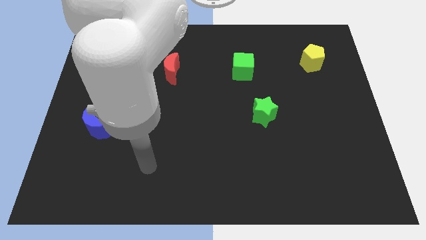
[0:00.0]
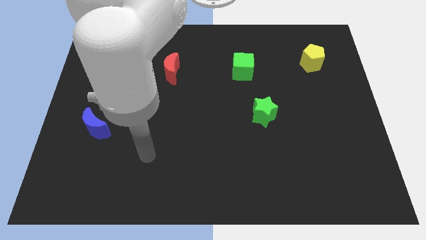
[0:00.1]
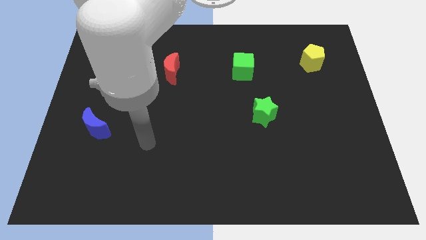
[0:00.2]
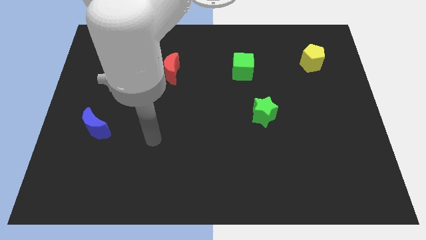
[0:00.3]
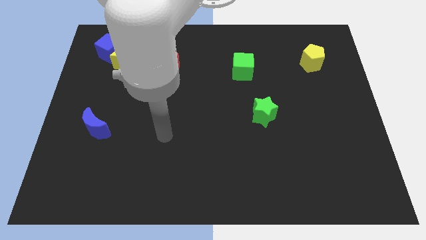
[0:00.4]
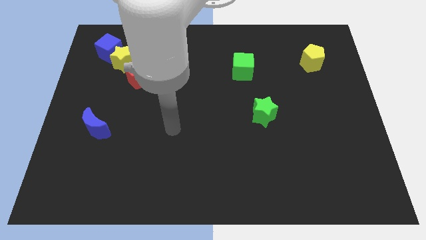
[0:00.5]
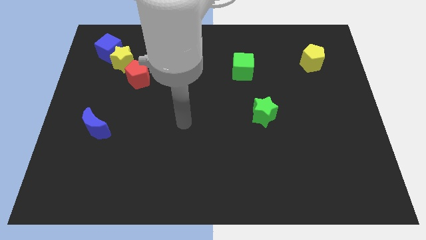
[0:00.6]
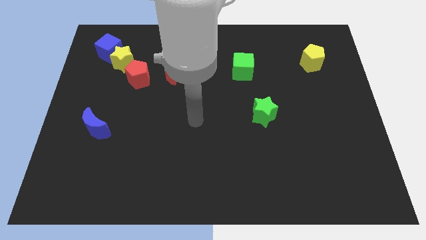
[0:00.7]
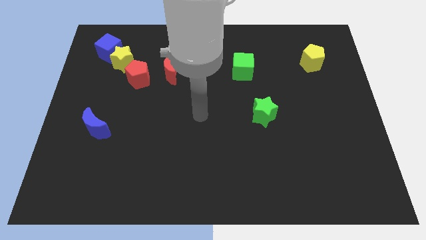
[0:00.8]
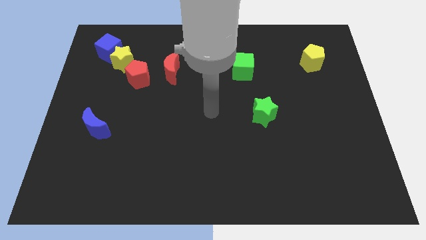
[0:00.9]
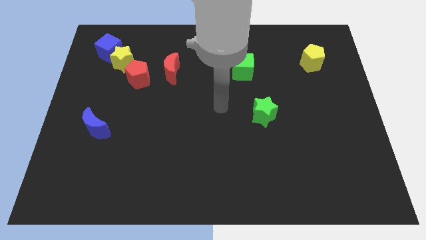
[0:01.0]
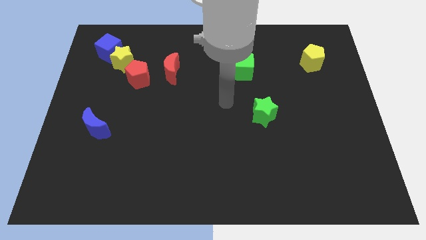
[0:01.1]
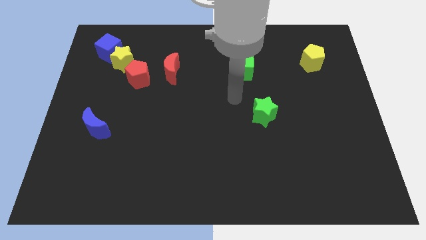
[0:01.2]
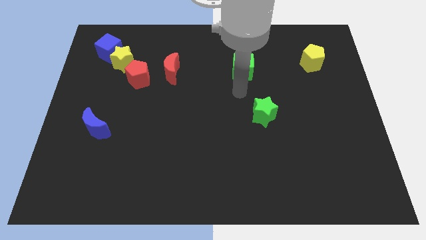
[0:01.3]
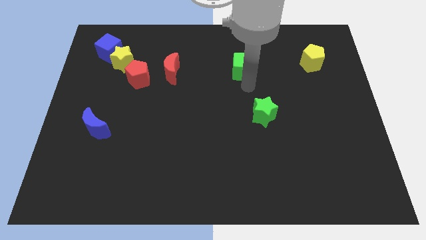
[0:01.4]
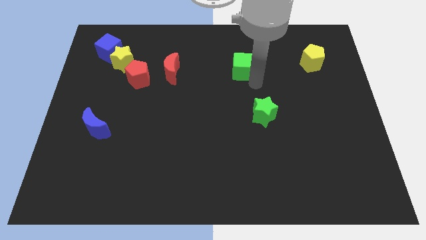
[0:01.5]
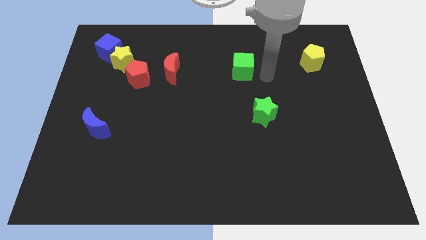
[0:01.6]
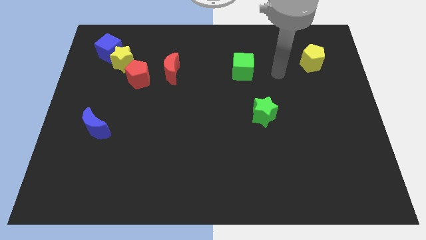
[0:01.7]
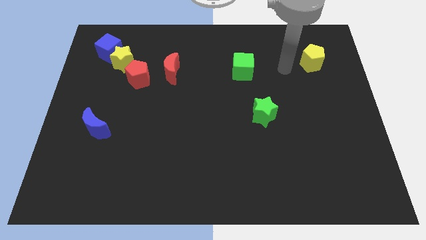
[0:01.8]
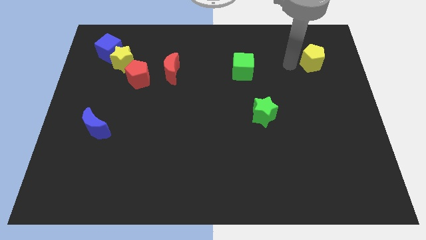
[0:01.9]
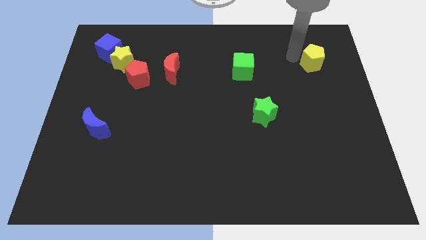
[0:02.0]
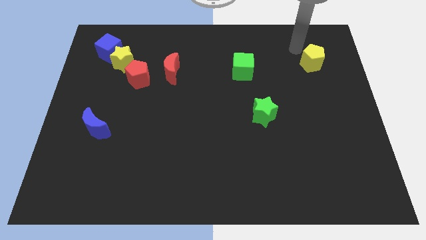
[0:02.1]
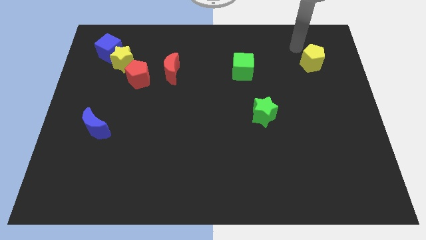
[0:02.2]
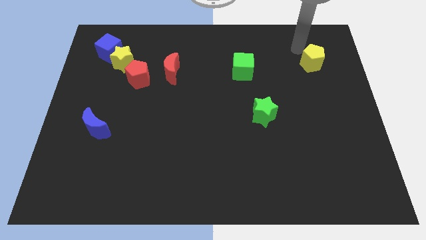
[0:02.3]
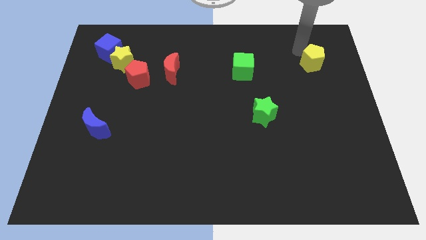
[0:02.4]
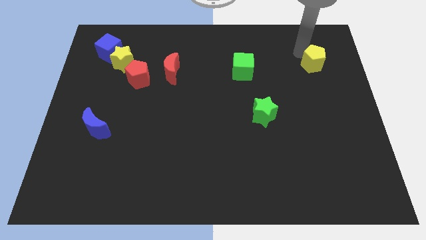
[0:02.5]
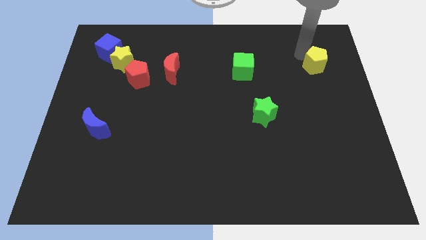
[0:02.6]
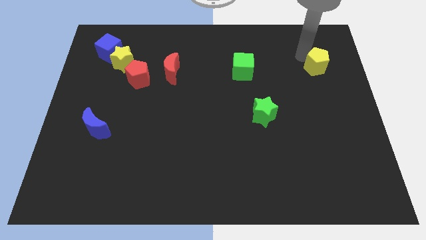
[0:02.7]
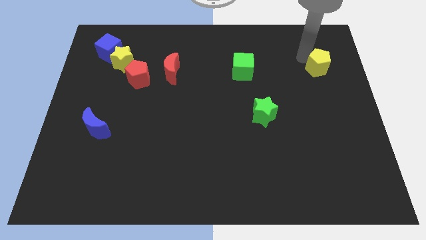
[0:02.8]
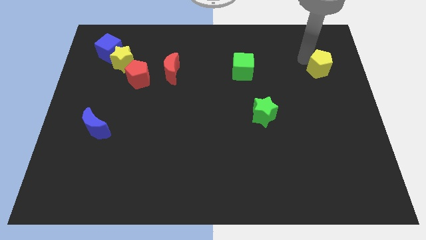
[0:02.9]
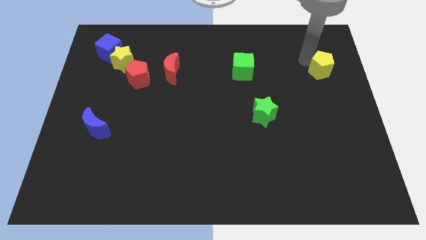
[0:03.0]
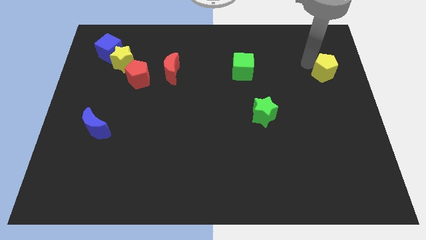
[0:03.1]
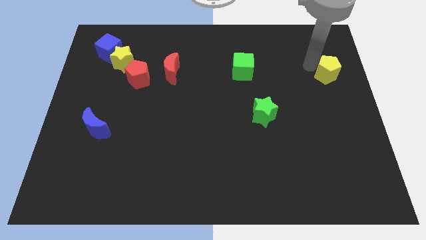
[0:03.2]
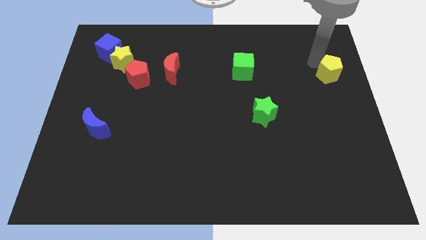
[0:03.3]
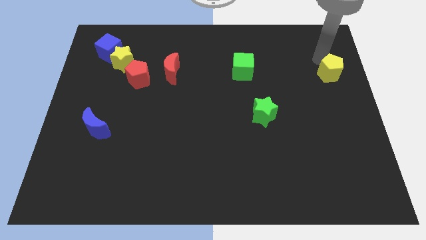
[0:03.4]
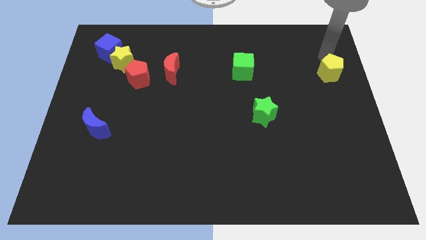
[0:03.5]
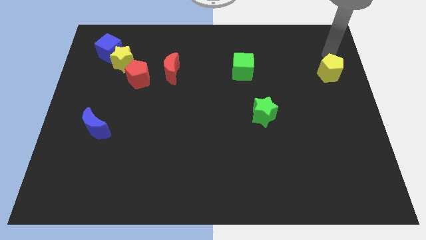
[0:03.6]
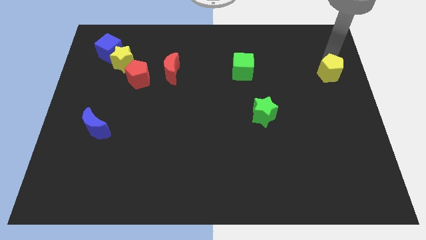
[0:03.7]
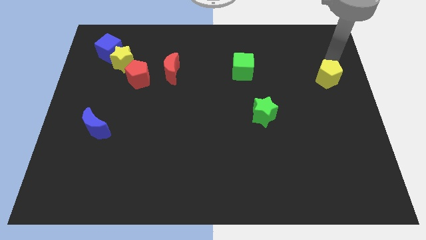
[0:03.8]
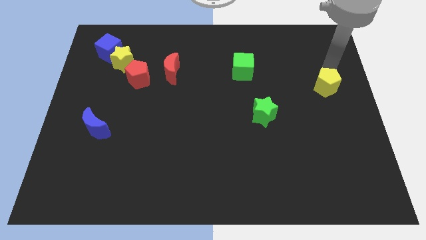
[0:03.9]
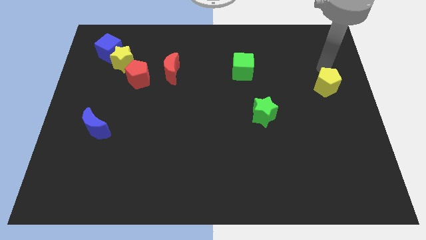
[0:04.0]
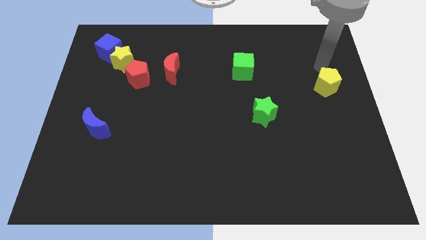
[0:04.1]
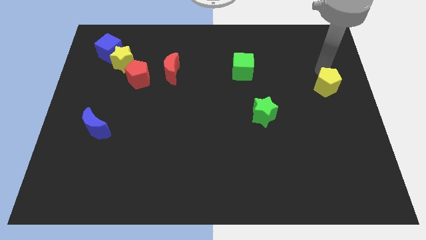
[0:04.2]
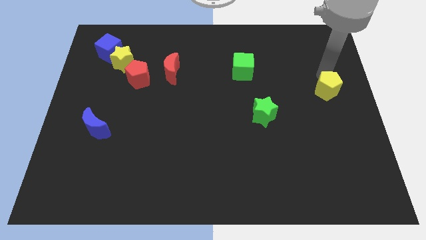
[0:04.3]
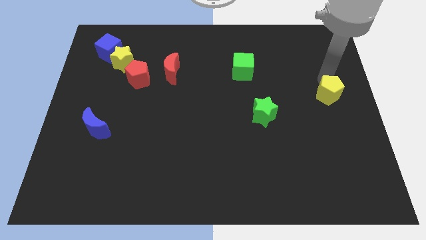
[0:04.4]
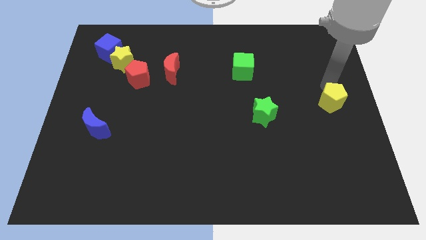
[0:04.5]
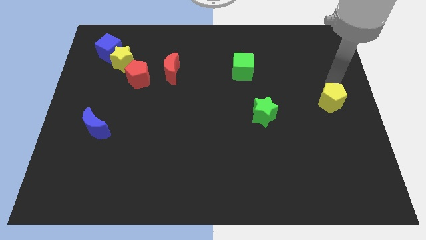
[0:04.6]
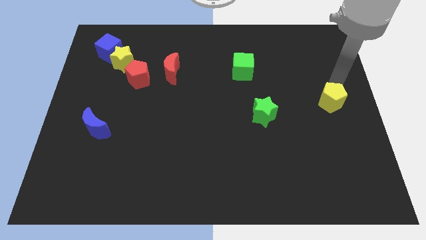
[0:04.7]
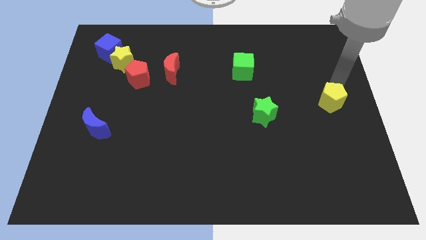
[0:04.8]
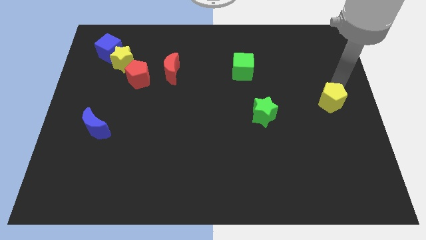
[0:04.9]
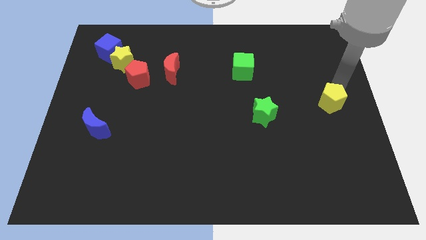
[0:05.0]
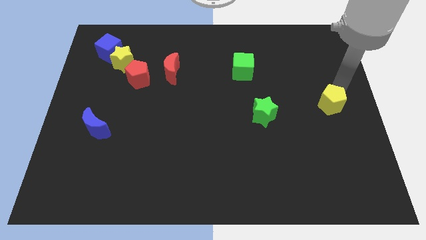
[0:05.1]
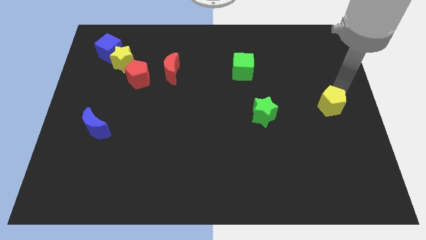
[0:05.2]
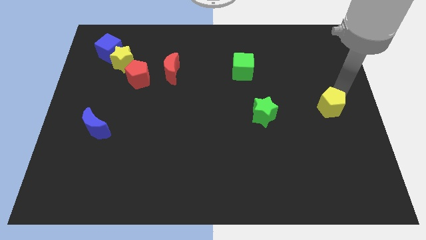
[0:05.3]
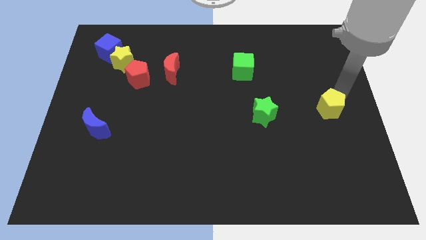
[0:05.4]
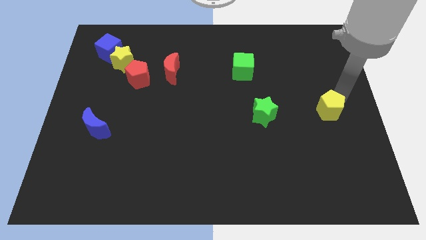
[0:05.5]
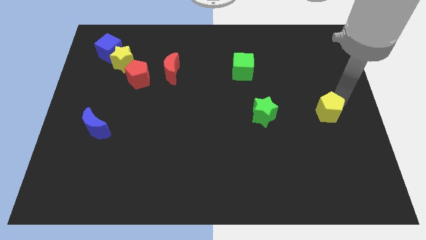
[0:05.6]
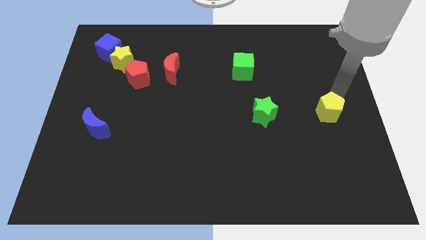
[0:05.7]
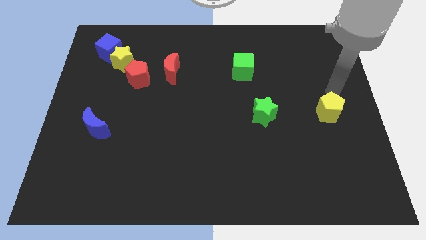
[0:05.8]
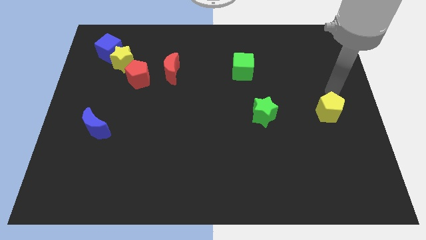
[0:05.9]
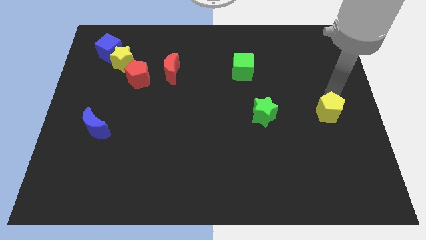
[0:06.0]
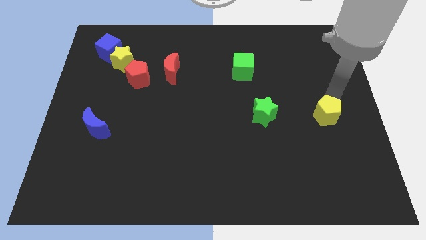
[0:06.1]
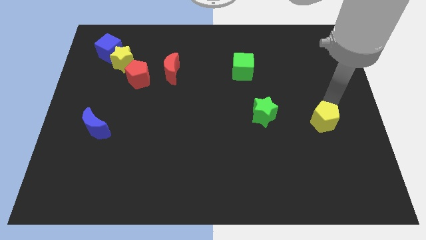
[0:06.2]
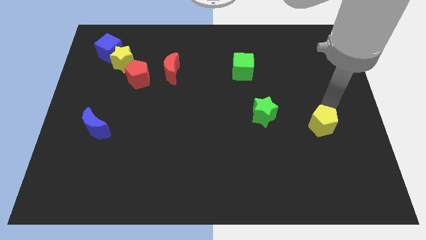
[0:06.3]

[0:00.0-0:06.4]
push the yellow pentagon downwards

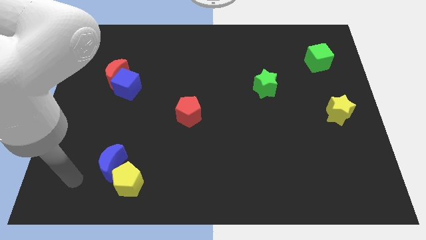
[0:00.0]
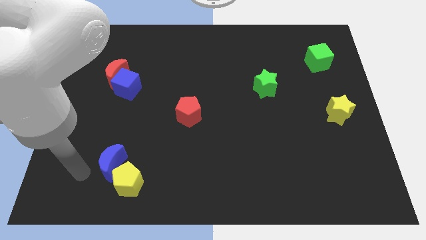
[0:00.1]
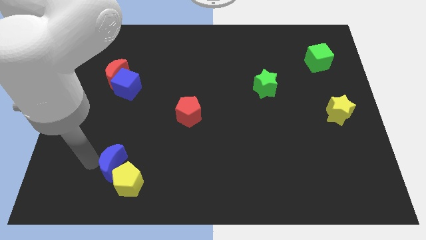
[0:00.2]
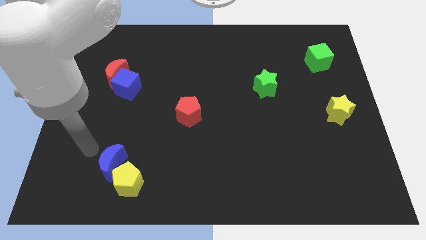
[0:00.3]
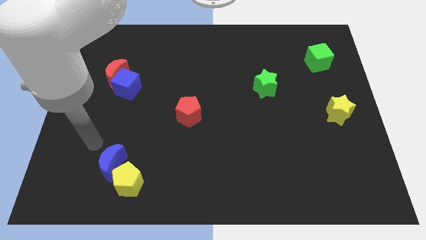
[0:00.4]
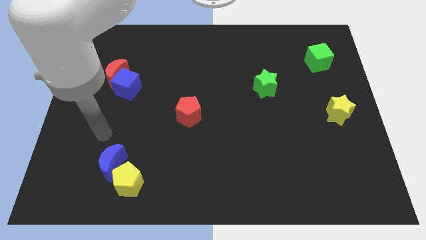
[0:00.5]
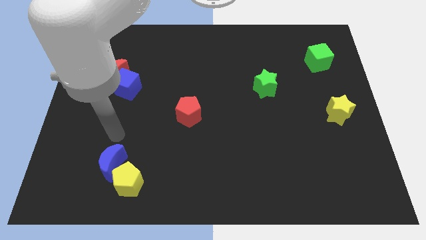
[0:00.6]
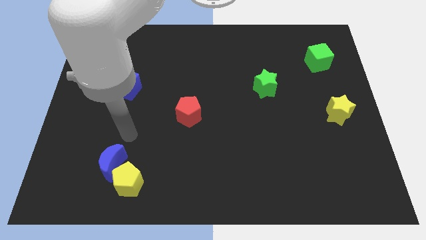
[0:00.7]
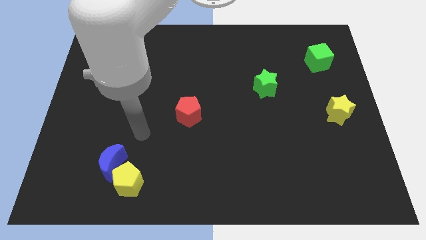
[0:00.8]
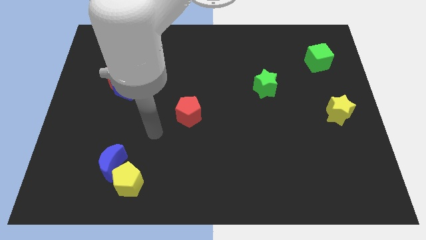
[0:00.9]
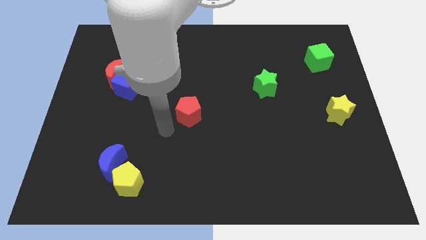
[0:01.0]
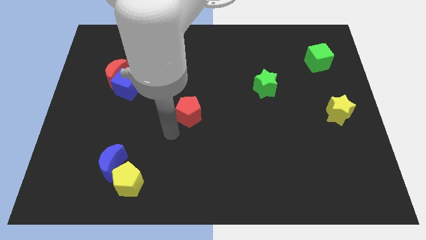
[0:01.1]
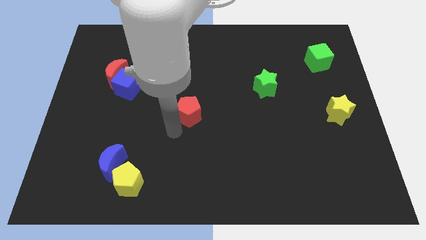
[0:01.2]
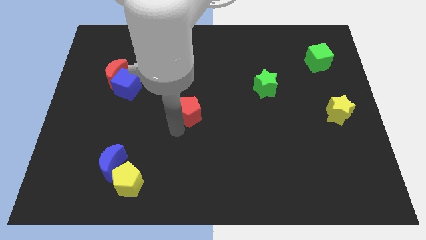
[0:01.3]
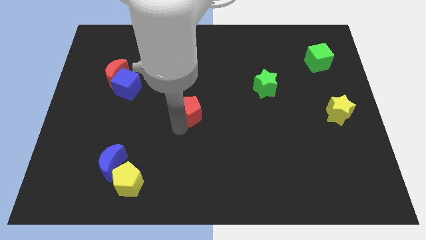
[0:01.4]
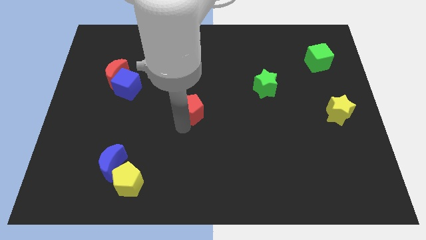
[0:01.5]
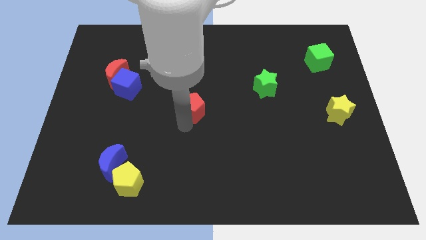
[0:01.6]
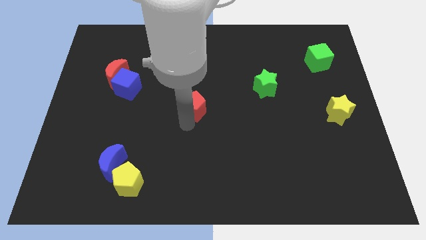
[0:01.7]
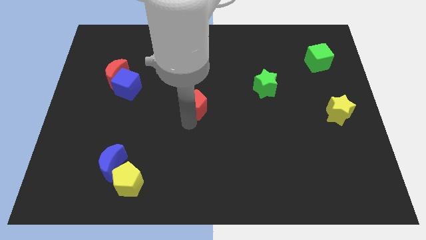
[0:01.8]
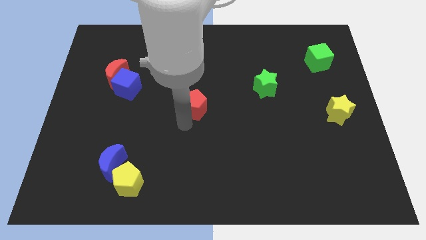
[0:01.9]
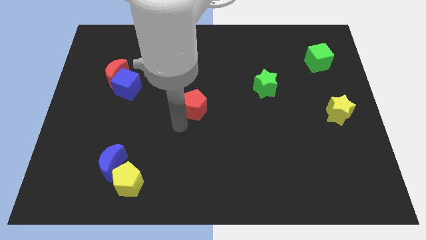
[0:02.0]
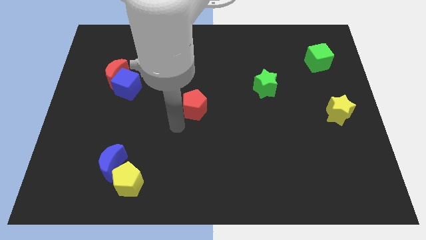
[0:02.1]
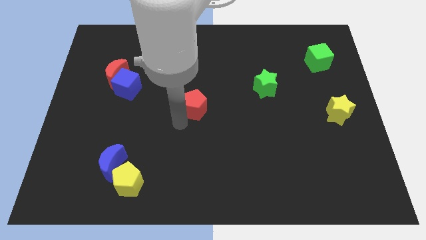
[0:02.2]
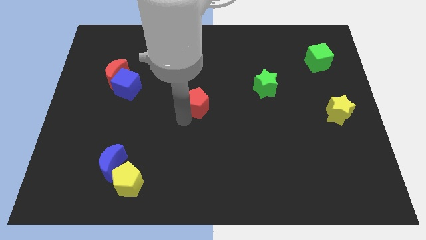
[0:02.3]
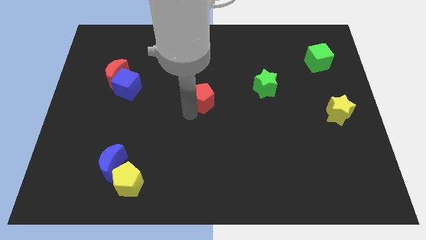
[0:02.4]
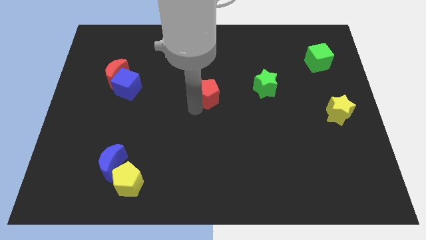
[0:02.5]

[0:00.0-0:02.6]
slide the red pentagon a little up and to the right
